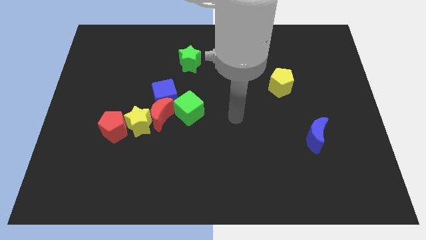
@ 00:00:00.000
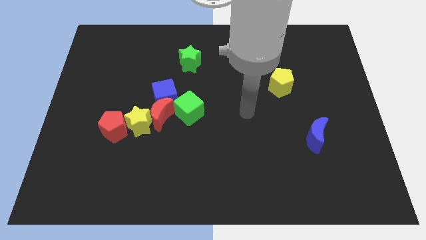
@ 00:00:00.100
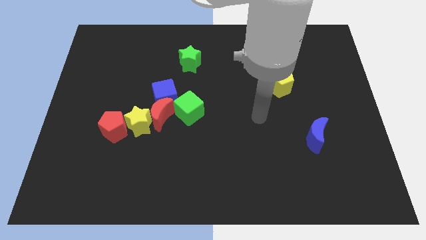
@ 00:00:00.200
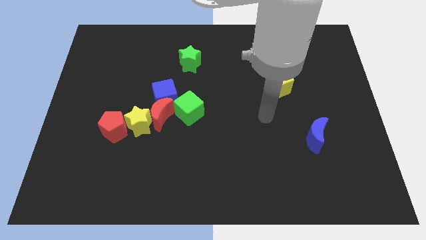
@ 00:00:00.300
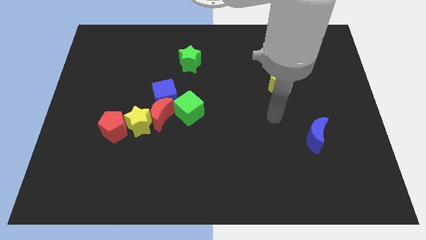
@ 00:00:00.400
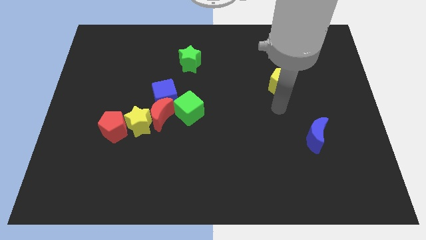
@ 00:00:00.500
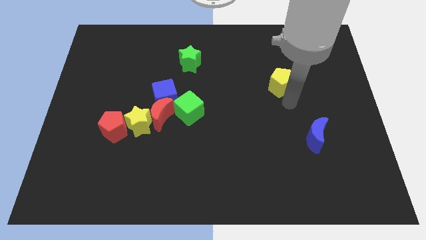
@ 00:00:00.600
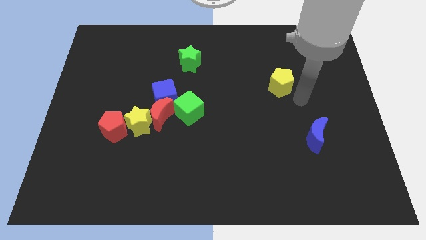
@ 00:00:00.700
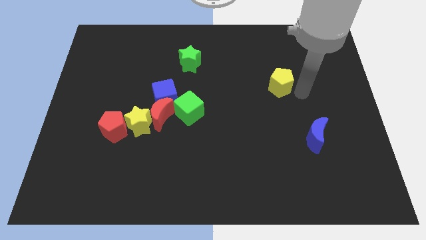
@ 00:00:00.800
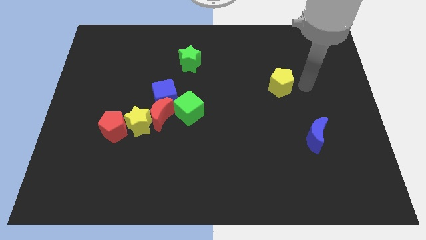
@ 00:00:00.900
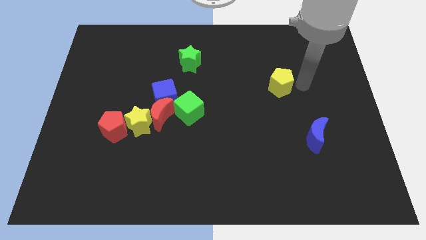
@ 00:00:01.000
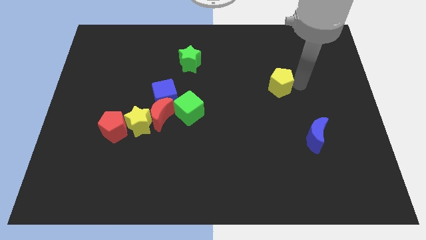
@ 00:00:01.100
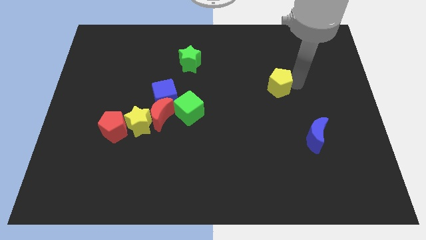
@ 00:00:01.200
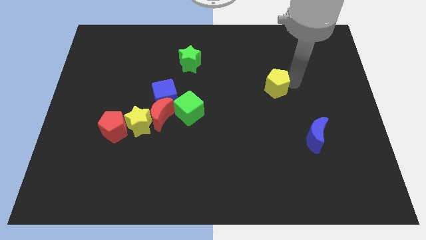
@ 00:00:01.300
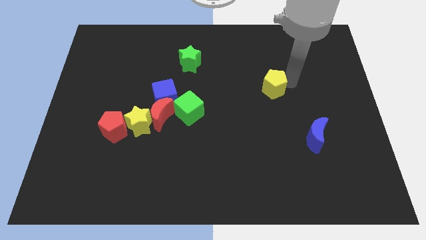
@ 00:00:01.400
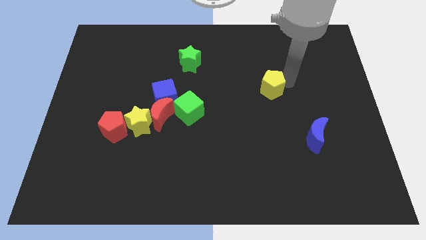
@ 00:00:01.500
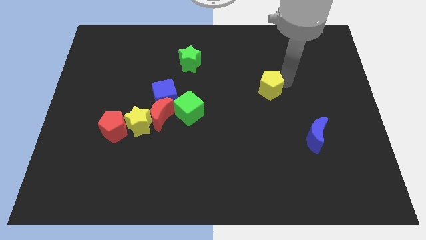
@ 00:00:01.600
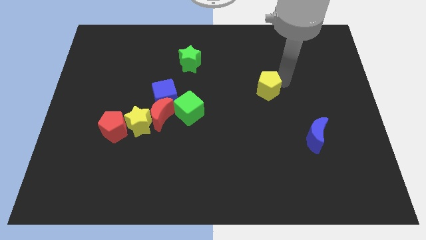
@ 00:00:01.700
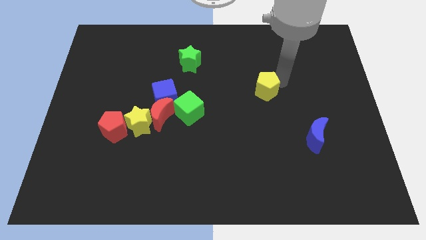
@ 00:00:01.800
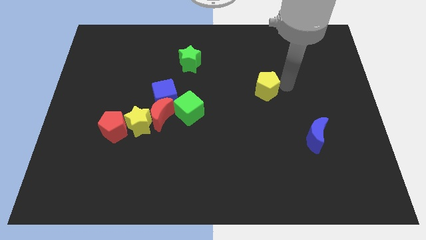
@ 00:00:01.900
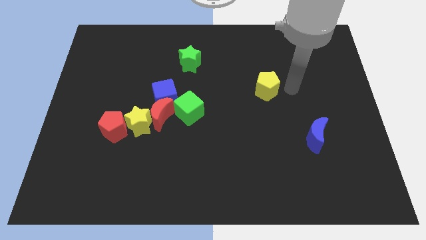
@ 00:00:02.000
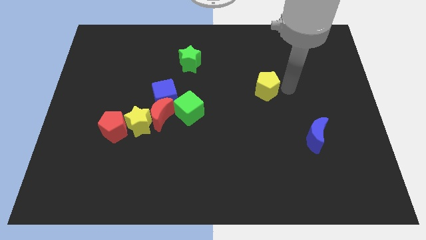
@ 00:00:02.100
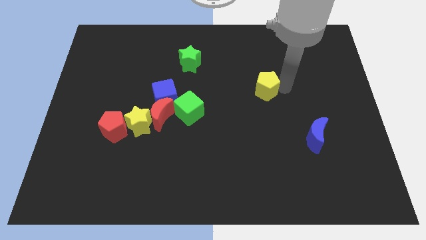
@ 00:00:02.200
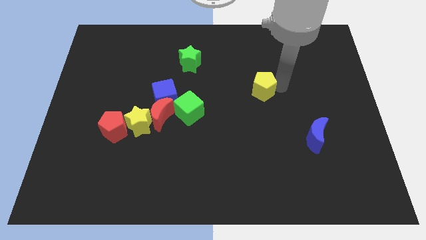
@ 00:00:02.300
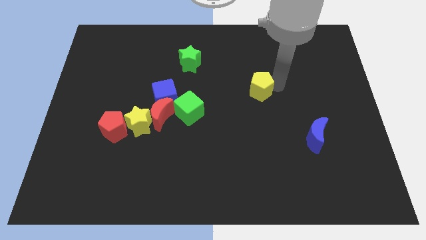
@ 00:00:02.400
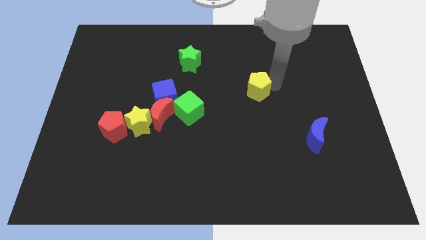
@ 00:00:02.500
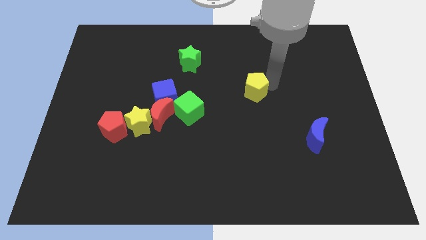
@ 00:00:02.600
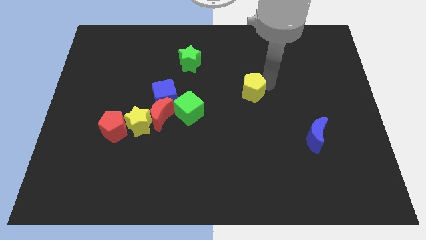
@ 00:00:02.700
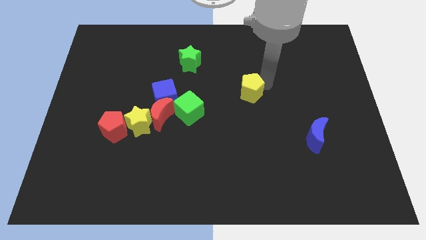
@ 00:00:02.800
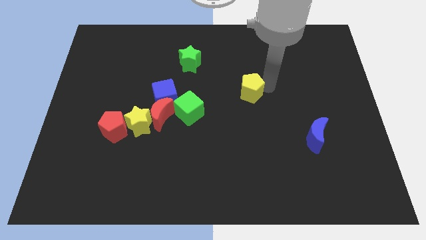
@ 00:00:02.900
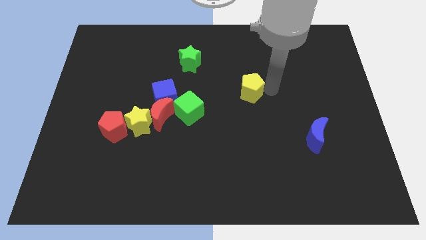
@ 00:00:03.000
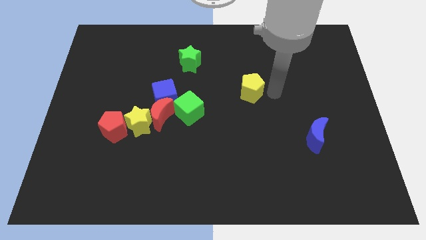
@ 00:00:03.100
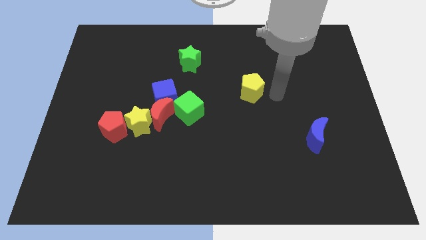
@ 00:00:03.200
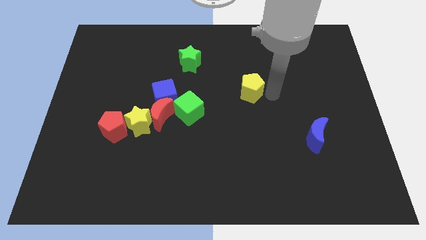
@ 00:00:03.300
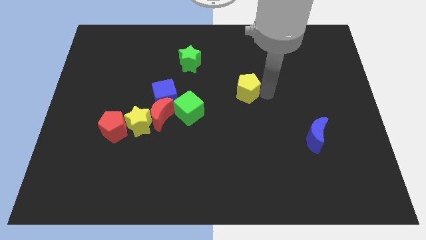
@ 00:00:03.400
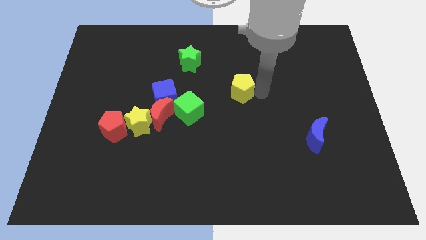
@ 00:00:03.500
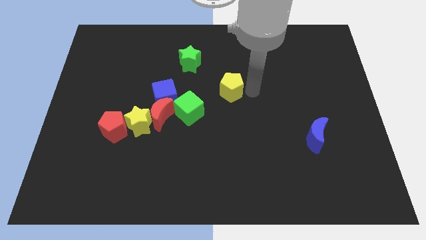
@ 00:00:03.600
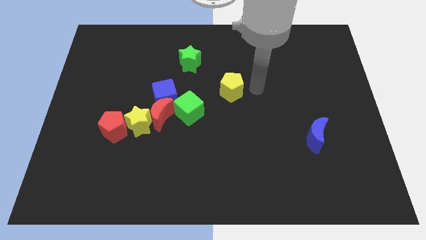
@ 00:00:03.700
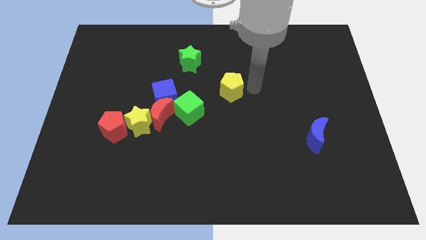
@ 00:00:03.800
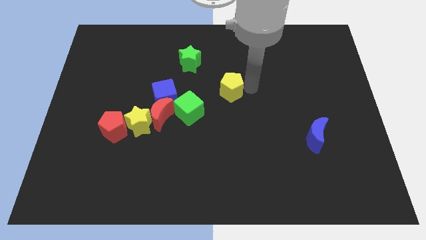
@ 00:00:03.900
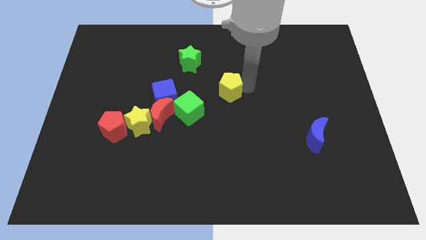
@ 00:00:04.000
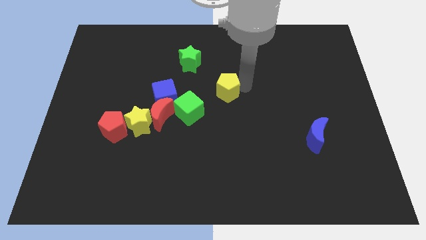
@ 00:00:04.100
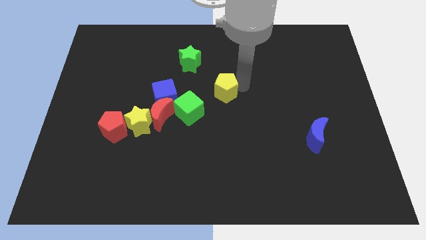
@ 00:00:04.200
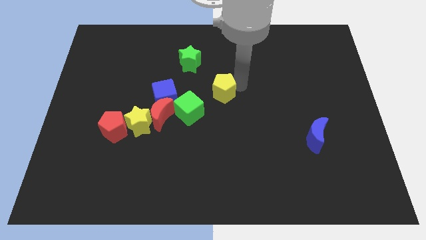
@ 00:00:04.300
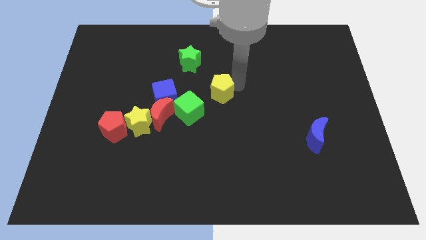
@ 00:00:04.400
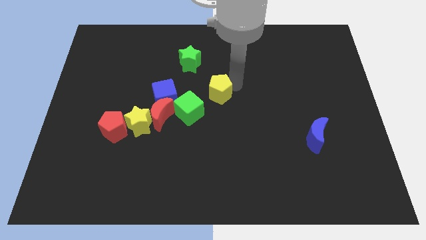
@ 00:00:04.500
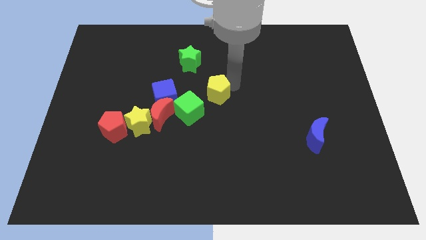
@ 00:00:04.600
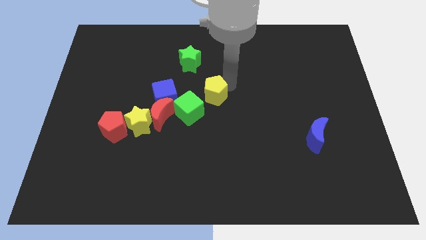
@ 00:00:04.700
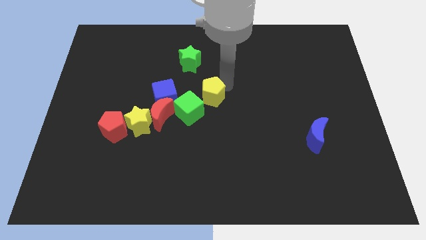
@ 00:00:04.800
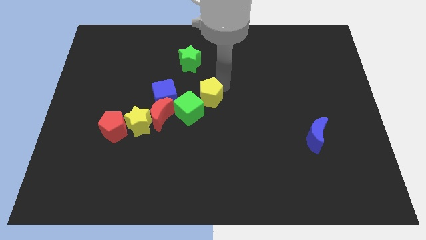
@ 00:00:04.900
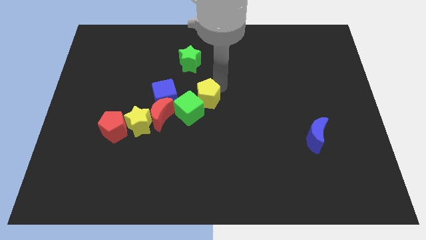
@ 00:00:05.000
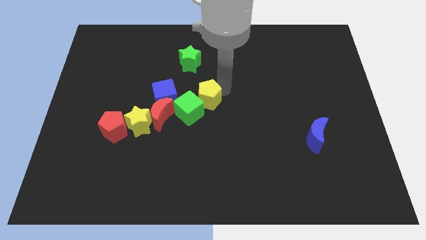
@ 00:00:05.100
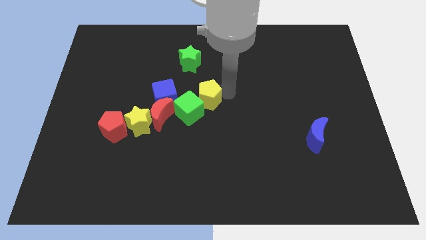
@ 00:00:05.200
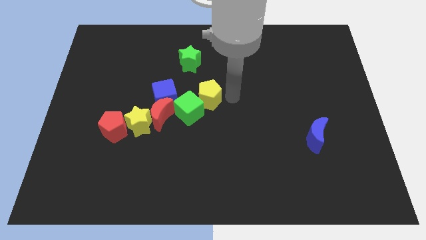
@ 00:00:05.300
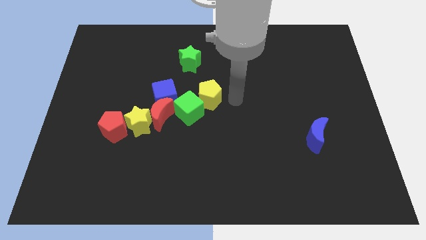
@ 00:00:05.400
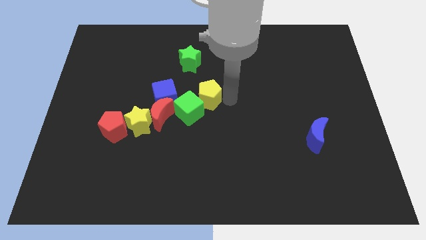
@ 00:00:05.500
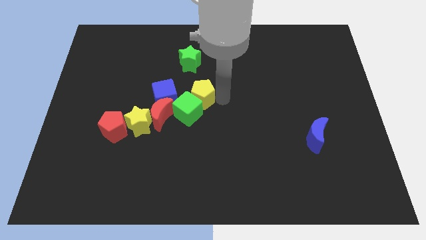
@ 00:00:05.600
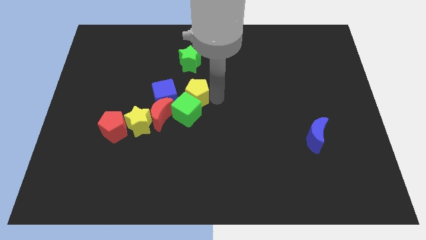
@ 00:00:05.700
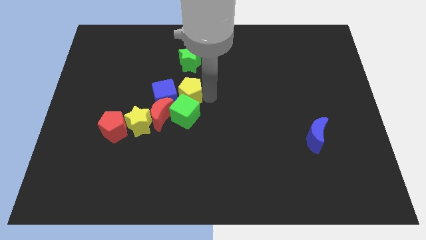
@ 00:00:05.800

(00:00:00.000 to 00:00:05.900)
put the yellow pentagon close to the blue cube

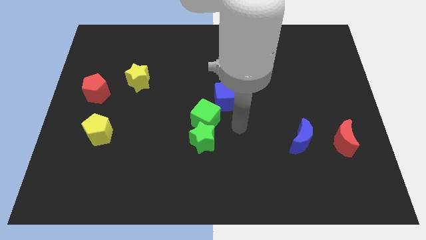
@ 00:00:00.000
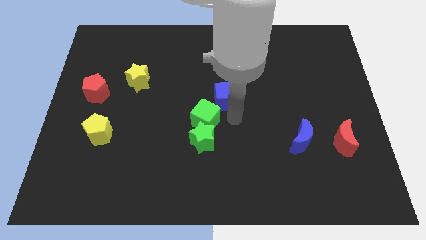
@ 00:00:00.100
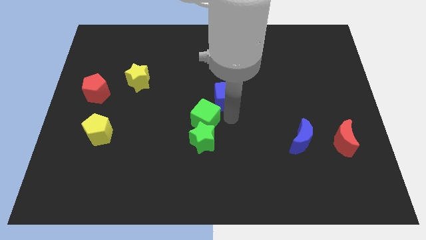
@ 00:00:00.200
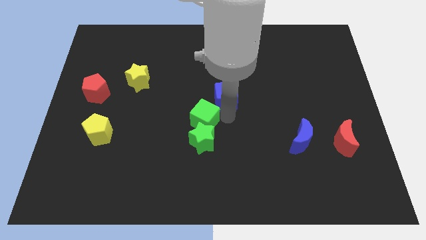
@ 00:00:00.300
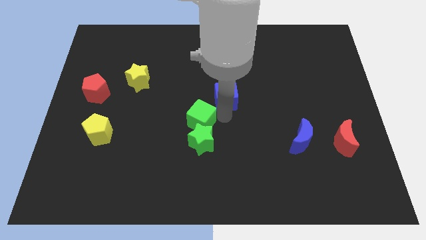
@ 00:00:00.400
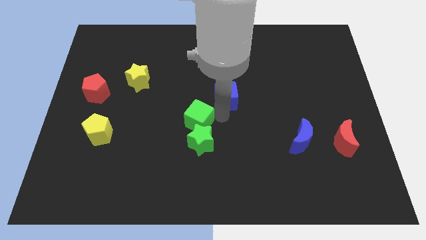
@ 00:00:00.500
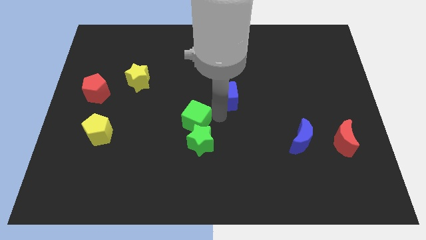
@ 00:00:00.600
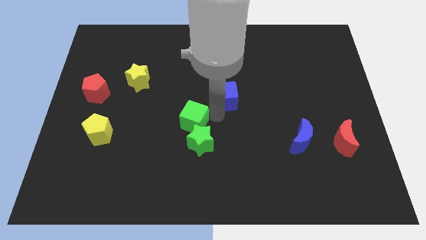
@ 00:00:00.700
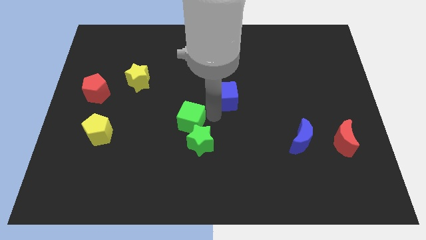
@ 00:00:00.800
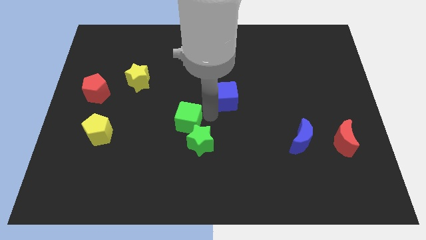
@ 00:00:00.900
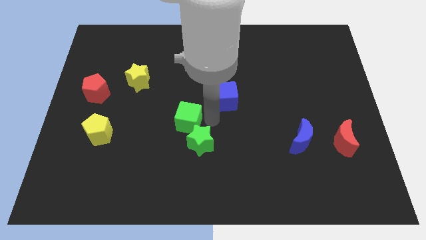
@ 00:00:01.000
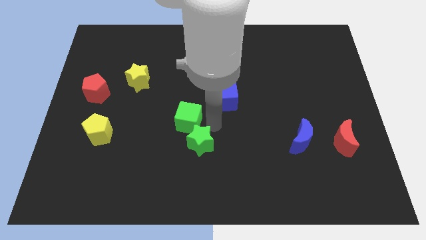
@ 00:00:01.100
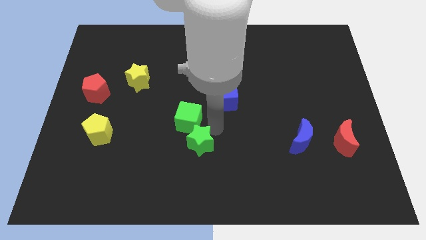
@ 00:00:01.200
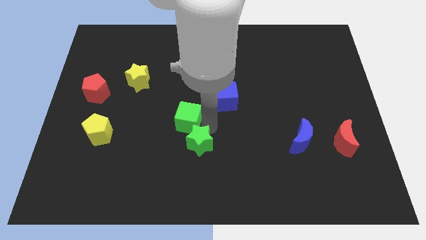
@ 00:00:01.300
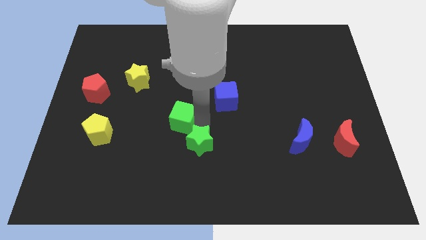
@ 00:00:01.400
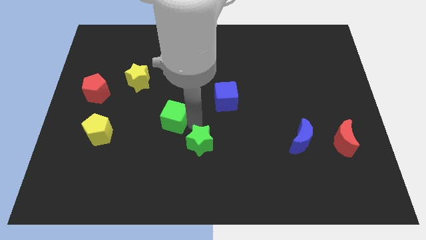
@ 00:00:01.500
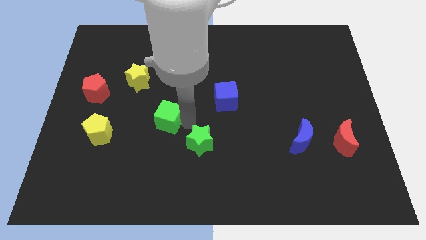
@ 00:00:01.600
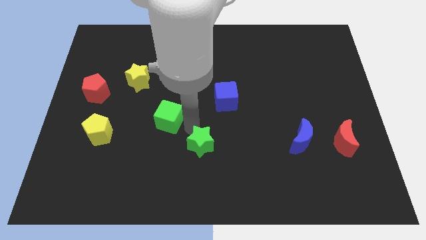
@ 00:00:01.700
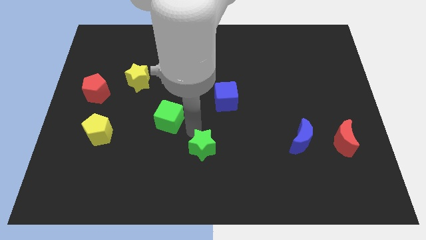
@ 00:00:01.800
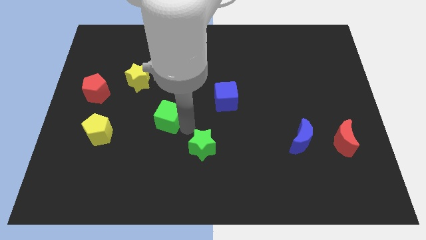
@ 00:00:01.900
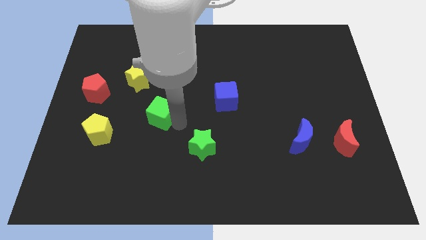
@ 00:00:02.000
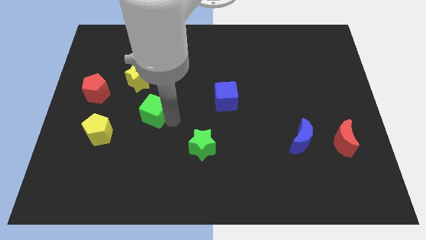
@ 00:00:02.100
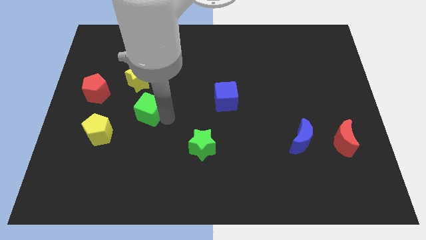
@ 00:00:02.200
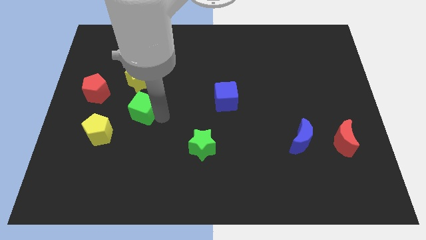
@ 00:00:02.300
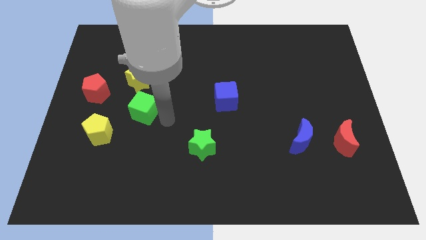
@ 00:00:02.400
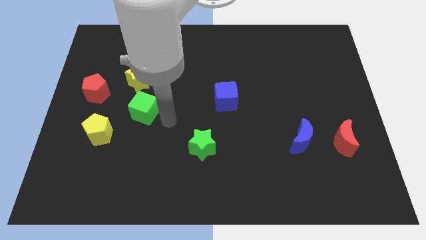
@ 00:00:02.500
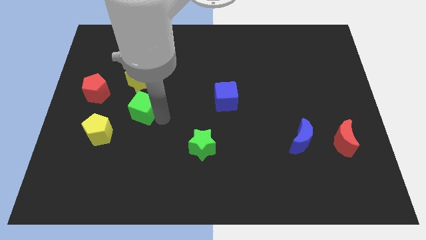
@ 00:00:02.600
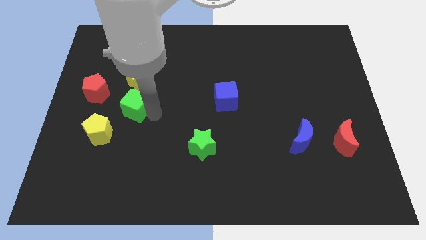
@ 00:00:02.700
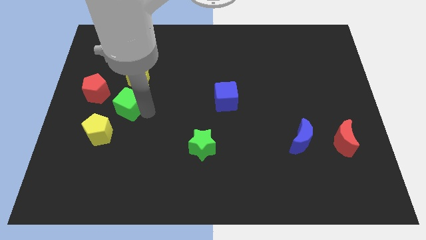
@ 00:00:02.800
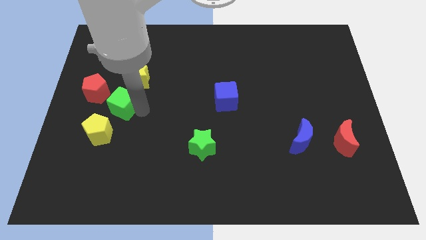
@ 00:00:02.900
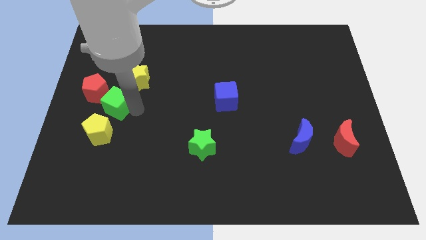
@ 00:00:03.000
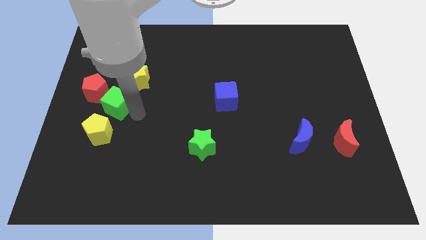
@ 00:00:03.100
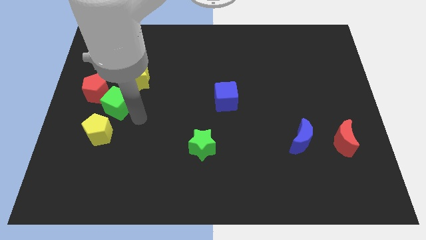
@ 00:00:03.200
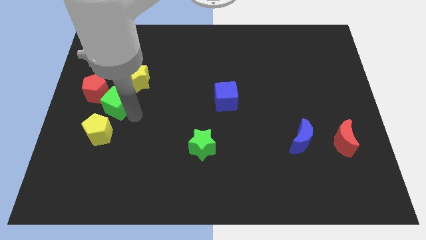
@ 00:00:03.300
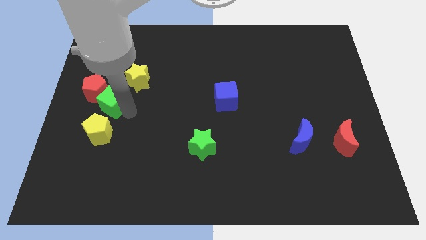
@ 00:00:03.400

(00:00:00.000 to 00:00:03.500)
move the green cube to the red pentagon
